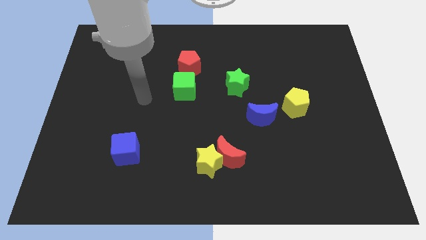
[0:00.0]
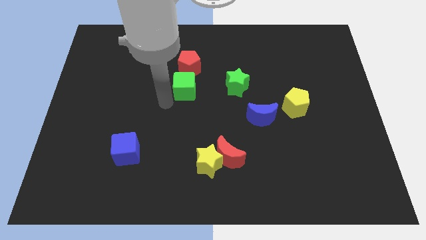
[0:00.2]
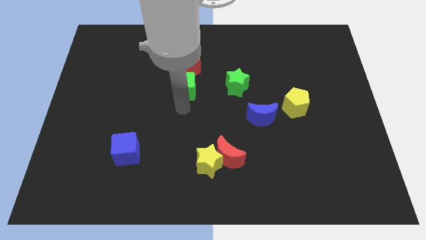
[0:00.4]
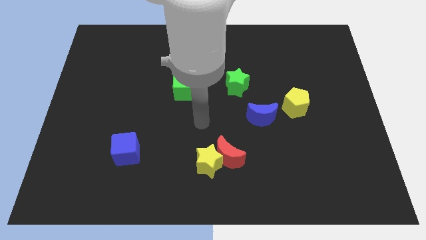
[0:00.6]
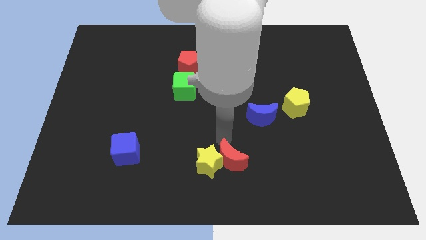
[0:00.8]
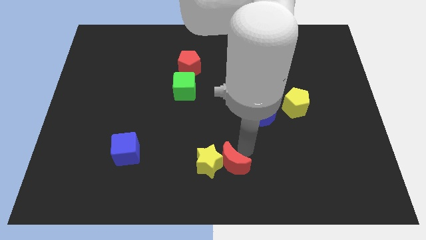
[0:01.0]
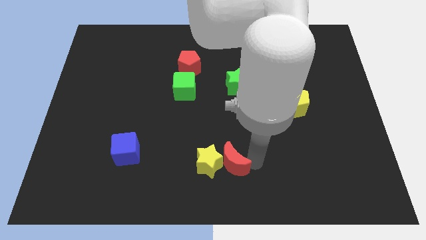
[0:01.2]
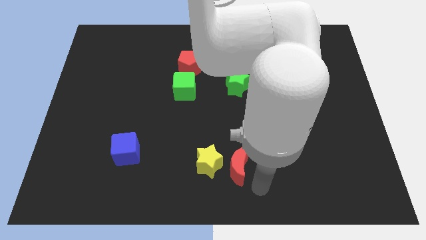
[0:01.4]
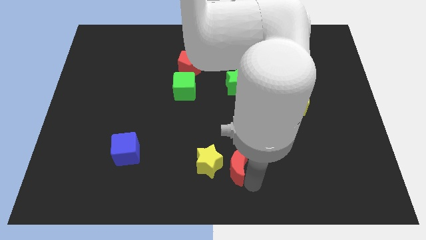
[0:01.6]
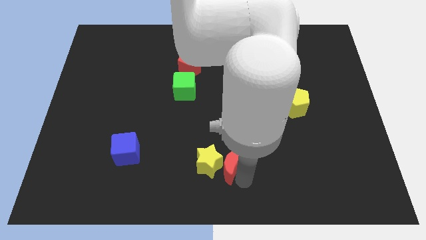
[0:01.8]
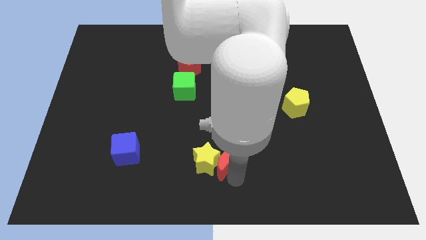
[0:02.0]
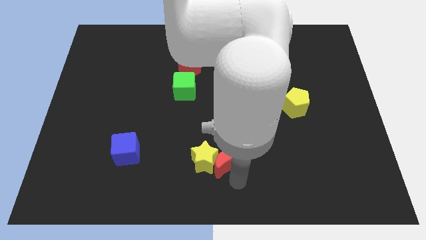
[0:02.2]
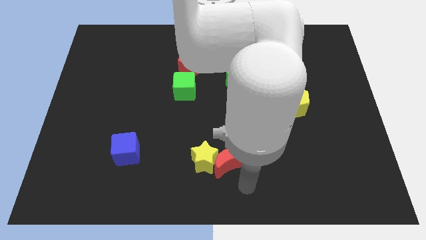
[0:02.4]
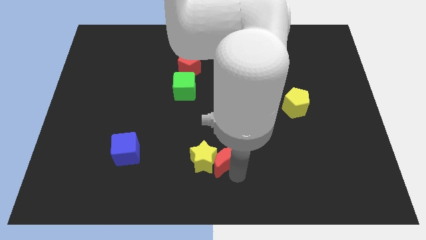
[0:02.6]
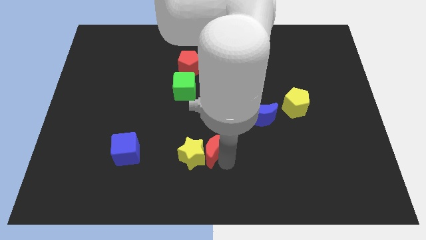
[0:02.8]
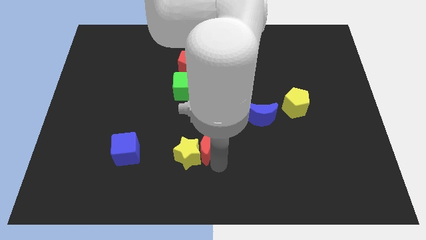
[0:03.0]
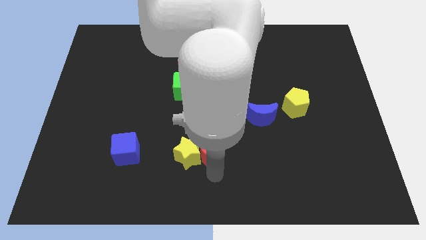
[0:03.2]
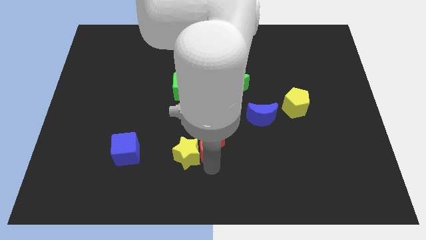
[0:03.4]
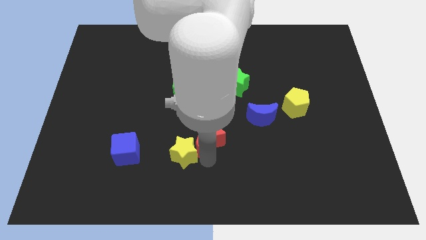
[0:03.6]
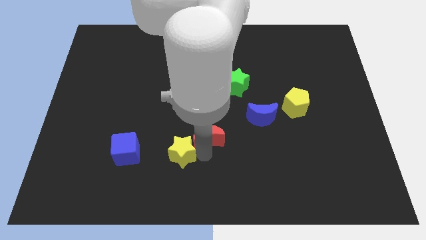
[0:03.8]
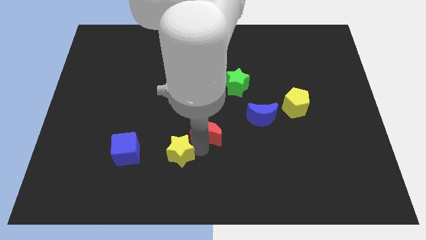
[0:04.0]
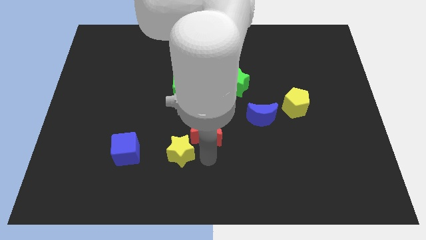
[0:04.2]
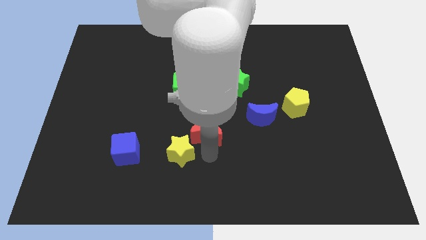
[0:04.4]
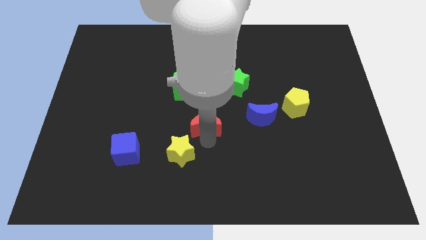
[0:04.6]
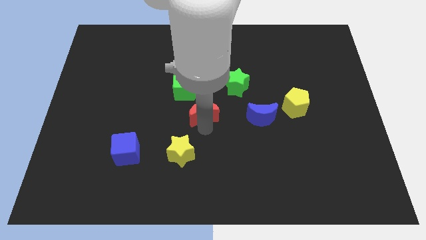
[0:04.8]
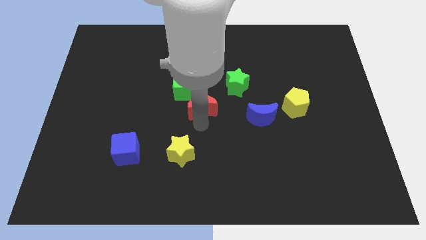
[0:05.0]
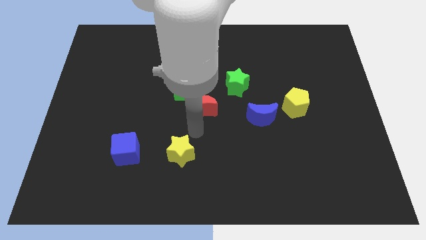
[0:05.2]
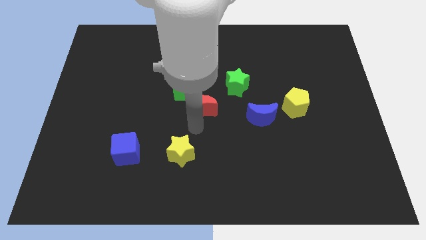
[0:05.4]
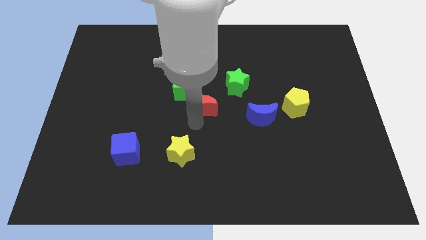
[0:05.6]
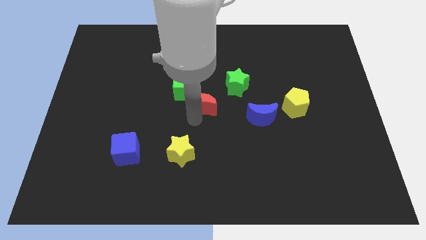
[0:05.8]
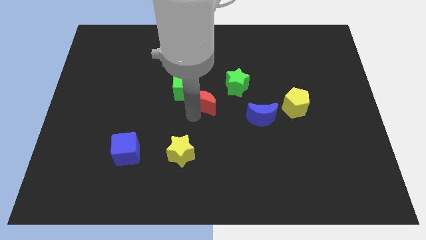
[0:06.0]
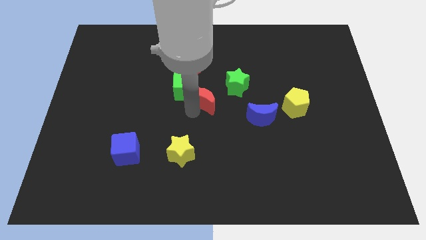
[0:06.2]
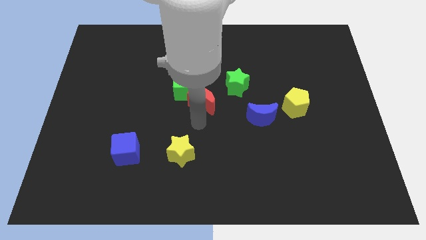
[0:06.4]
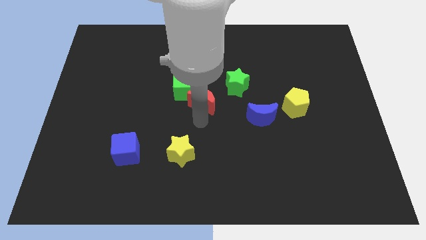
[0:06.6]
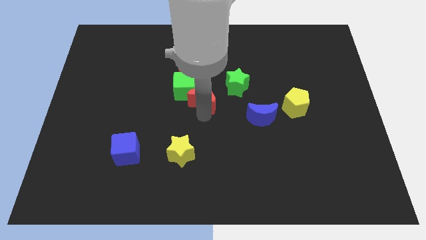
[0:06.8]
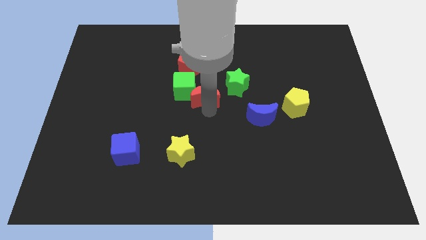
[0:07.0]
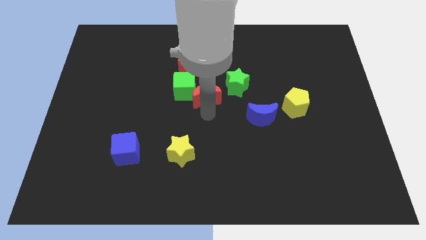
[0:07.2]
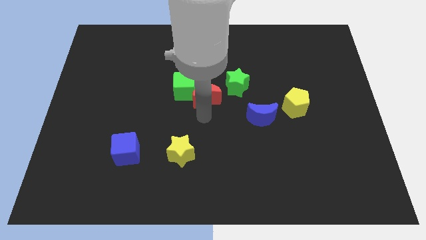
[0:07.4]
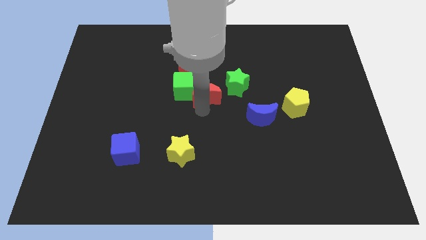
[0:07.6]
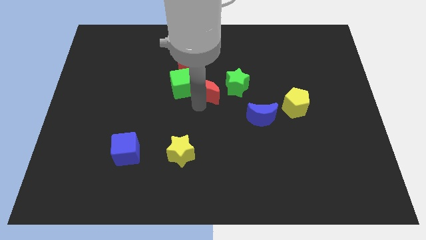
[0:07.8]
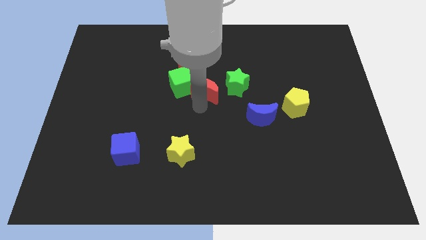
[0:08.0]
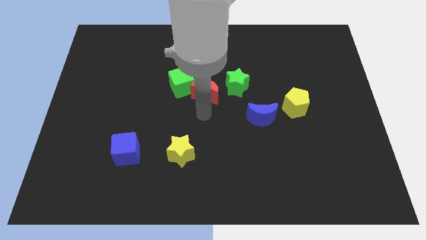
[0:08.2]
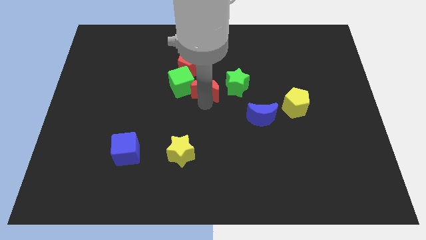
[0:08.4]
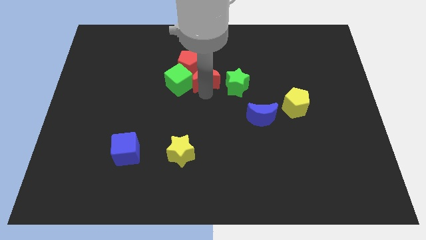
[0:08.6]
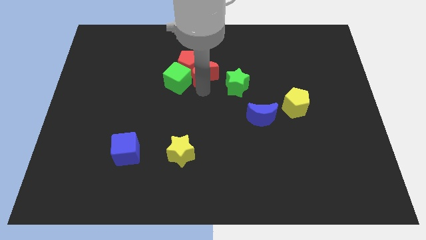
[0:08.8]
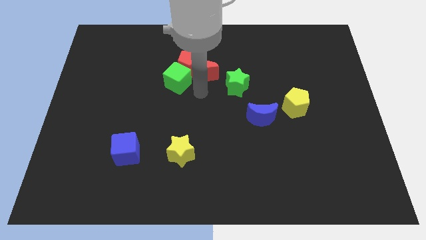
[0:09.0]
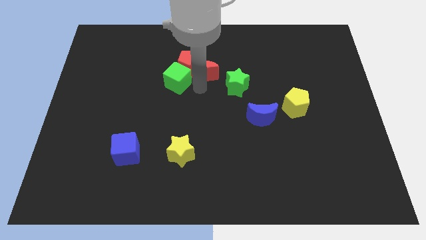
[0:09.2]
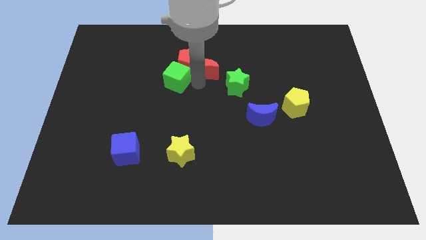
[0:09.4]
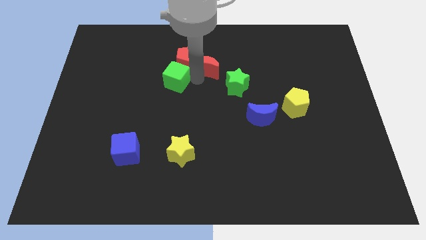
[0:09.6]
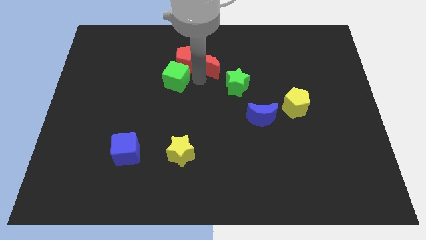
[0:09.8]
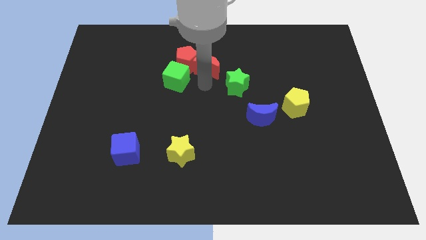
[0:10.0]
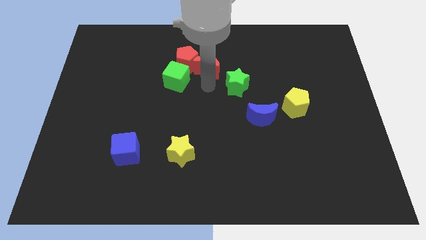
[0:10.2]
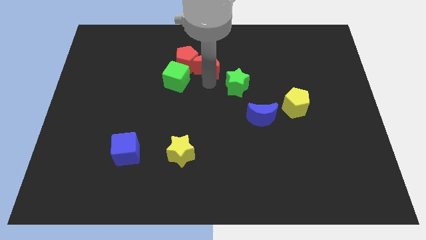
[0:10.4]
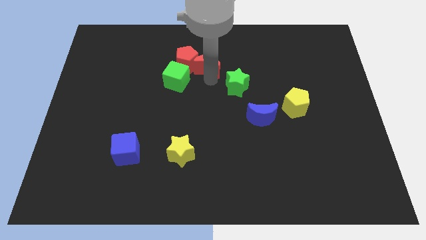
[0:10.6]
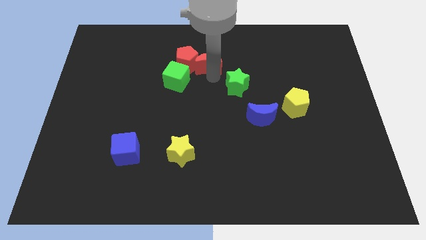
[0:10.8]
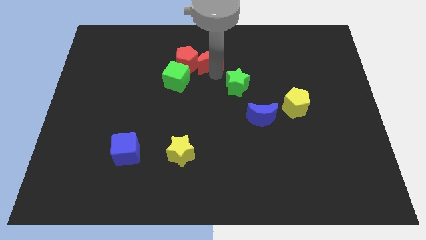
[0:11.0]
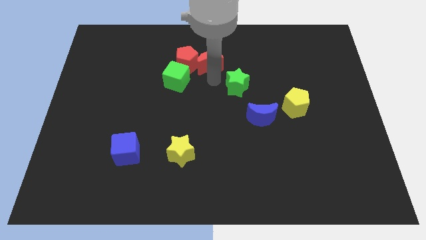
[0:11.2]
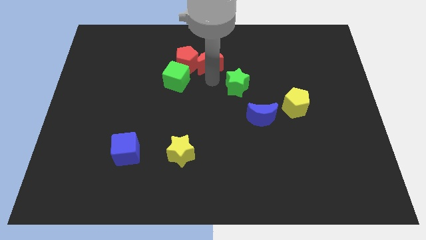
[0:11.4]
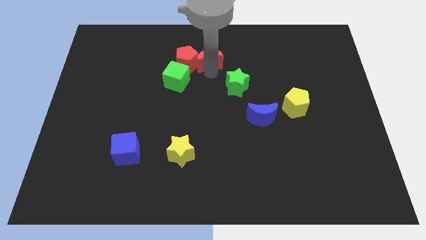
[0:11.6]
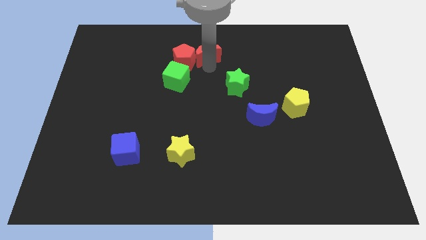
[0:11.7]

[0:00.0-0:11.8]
slide the red moon to the towards your base

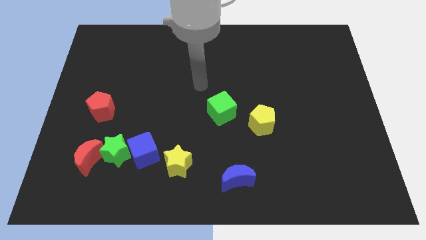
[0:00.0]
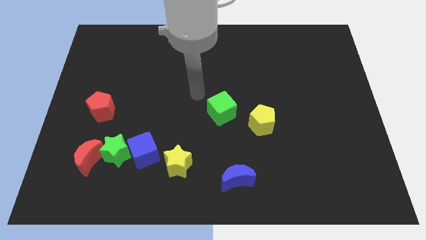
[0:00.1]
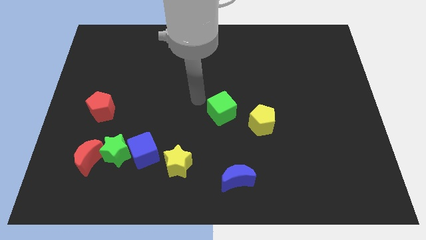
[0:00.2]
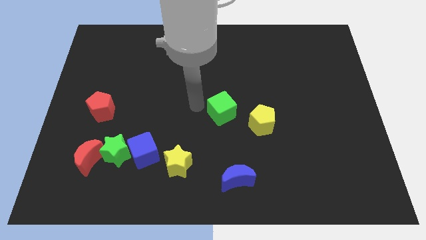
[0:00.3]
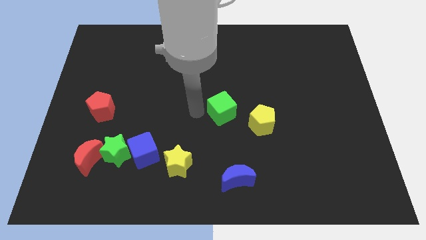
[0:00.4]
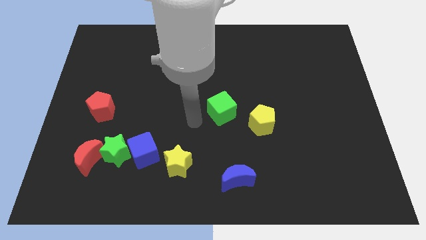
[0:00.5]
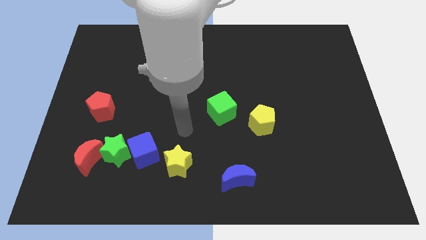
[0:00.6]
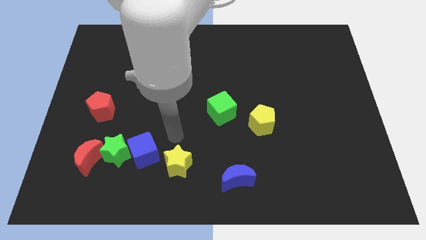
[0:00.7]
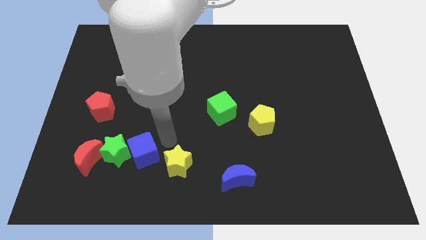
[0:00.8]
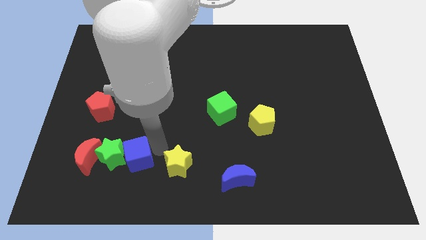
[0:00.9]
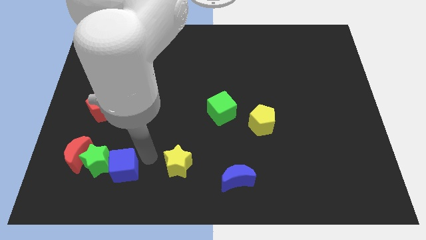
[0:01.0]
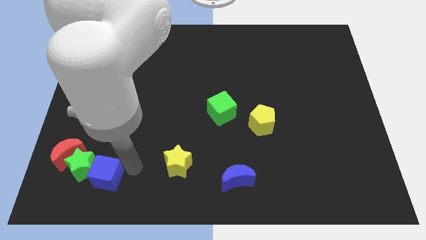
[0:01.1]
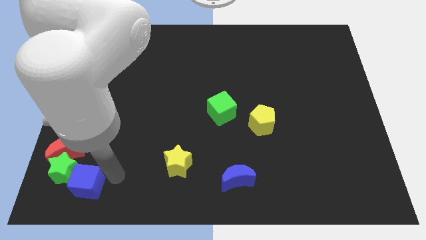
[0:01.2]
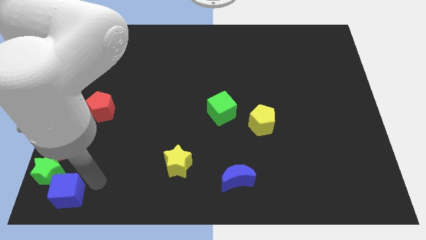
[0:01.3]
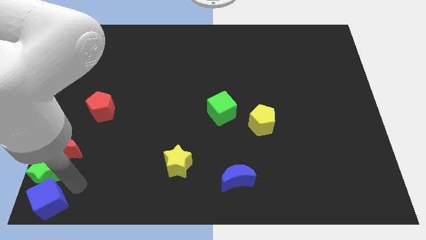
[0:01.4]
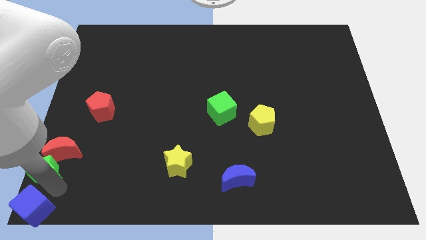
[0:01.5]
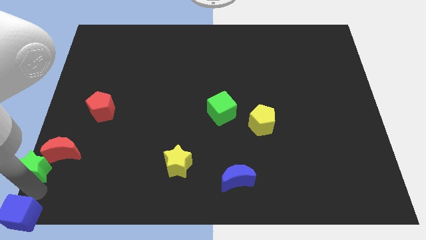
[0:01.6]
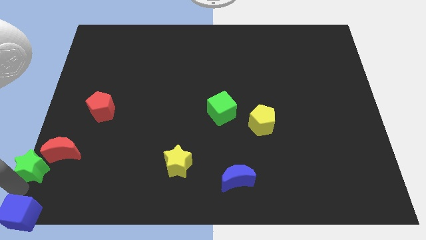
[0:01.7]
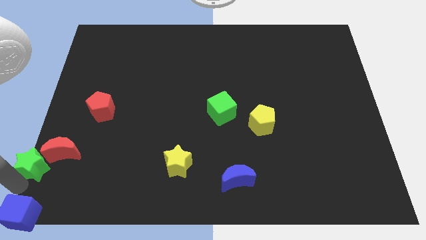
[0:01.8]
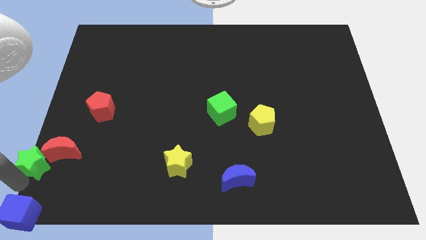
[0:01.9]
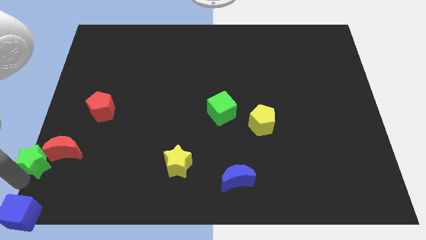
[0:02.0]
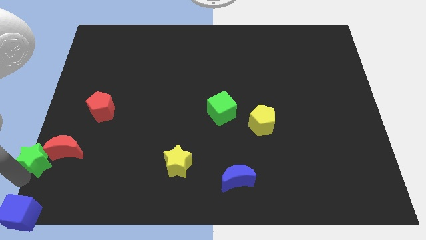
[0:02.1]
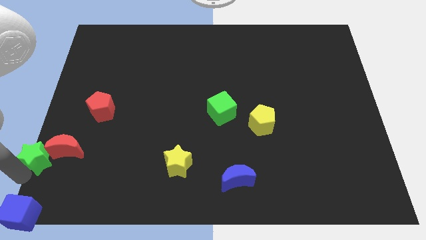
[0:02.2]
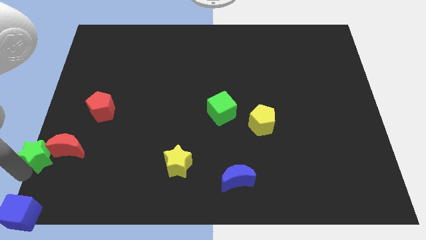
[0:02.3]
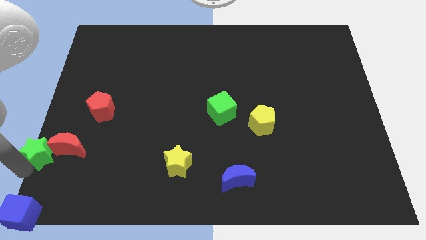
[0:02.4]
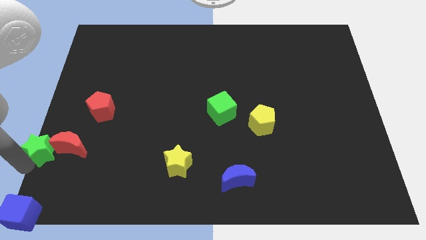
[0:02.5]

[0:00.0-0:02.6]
move the green star to the left side of the board
